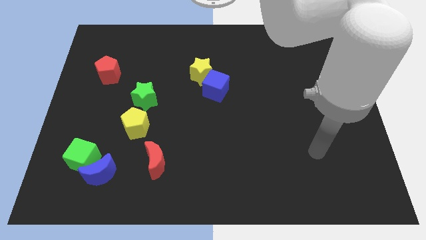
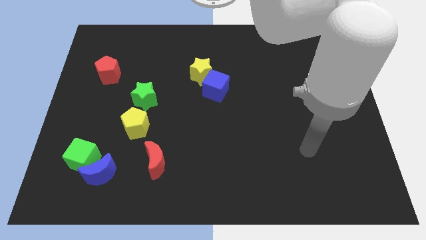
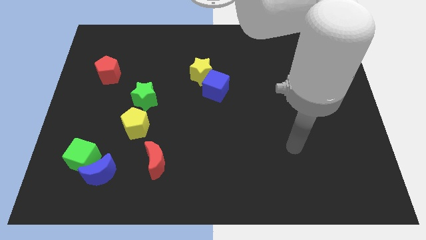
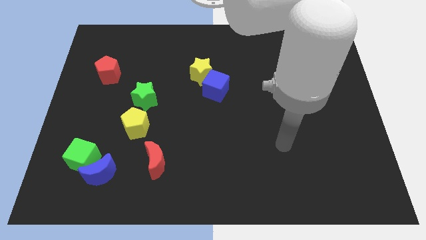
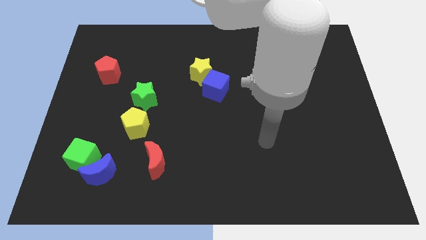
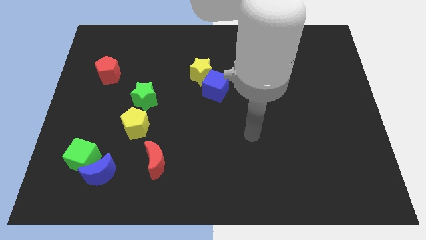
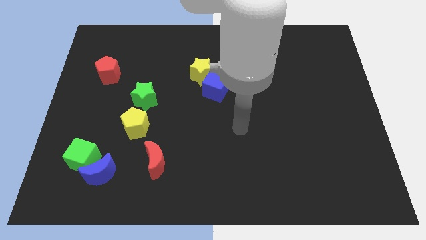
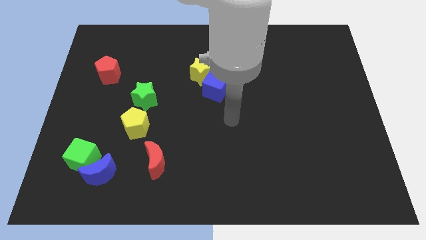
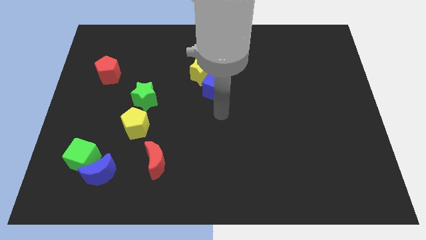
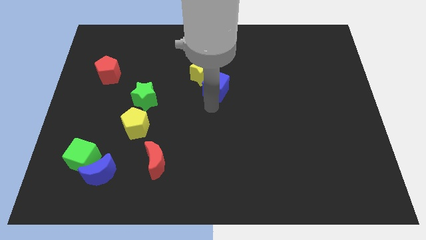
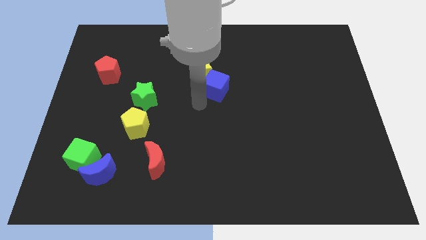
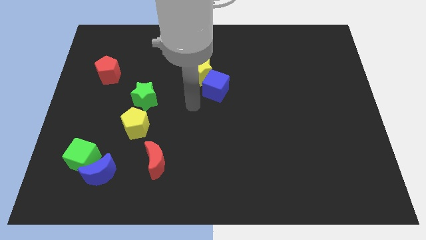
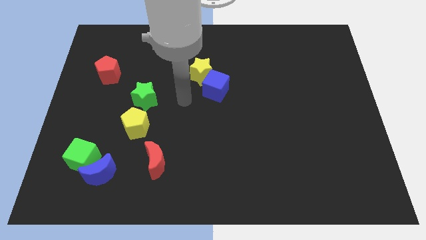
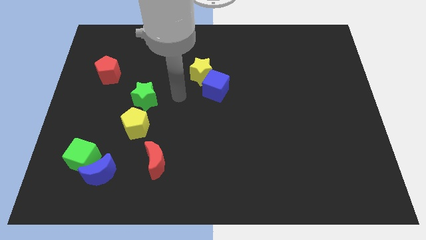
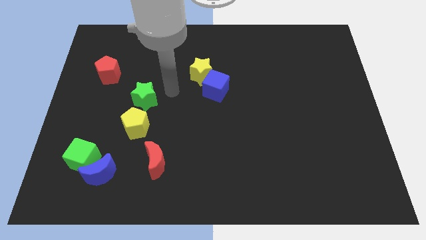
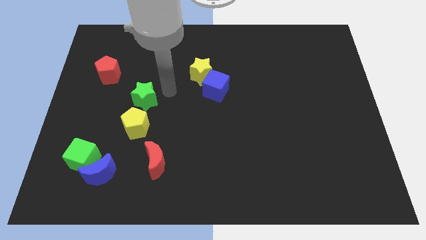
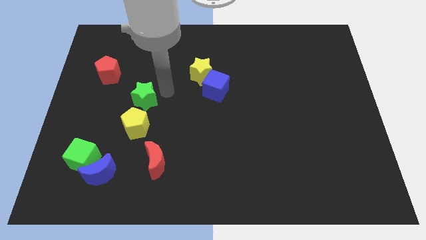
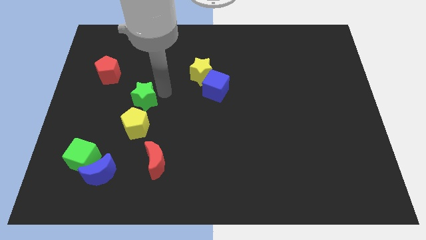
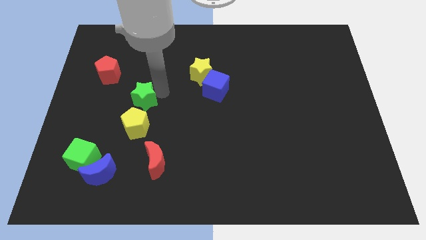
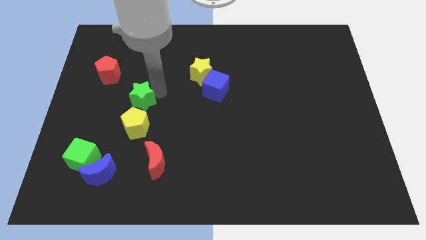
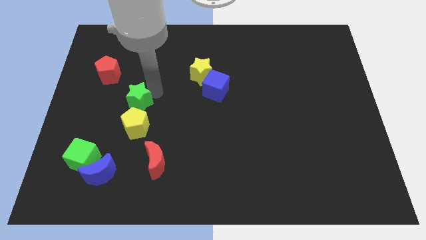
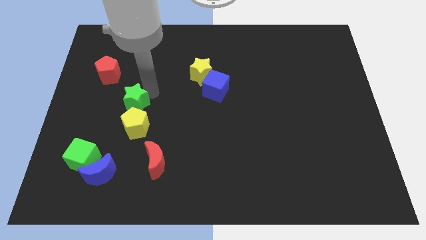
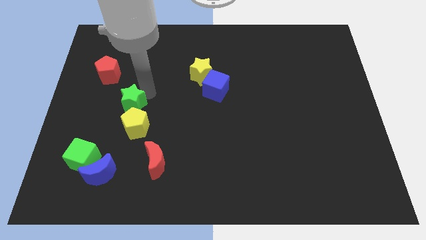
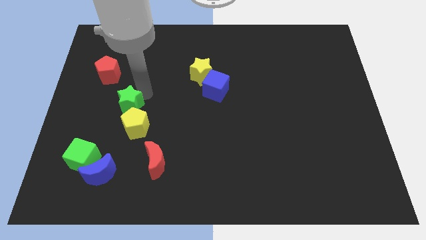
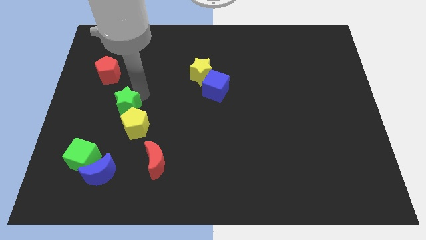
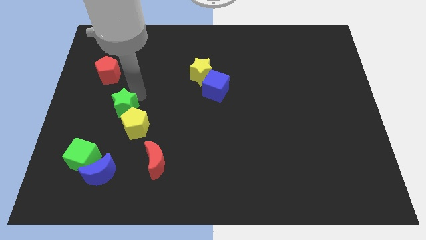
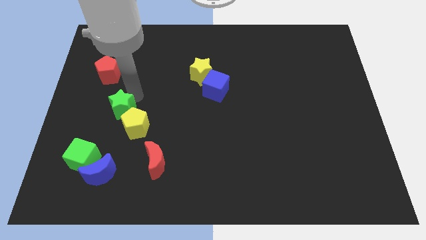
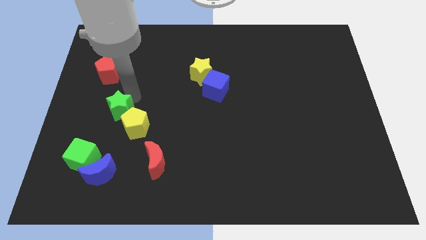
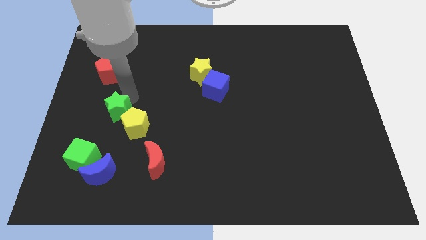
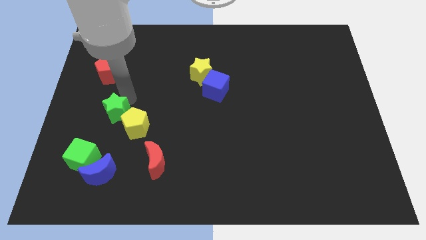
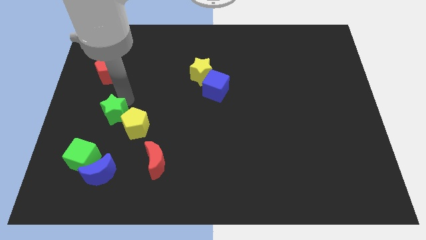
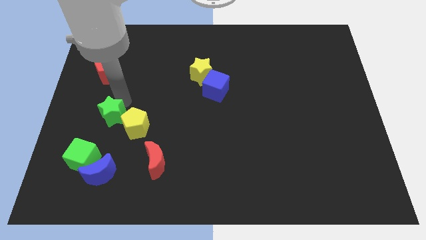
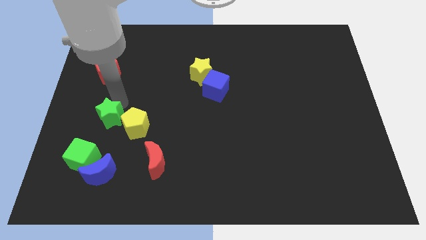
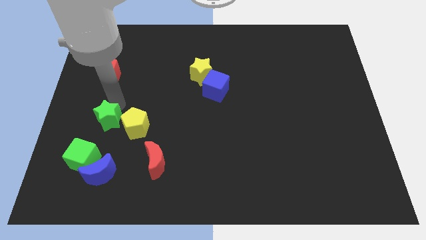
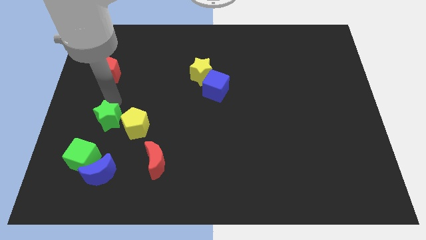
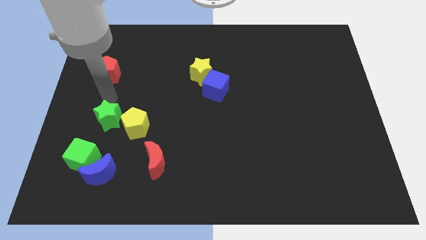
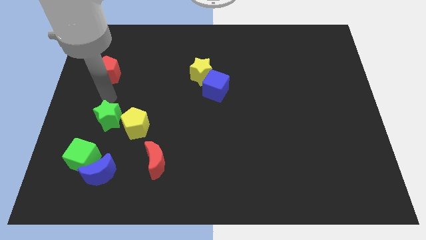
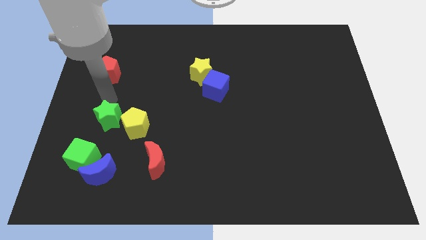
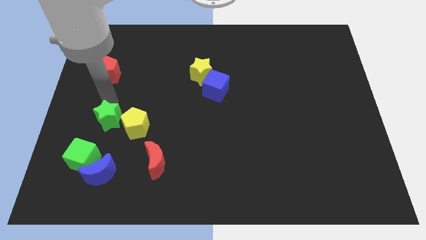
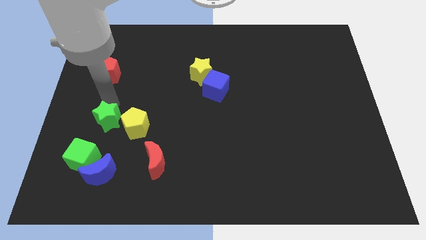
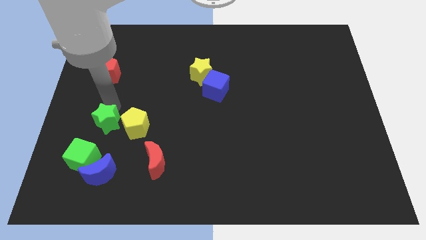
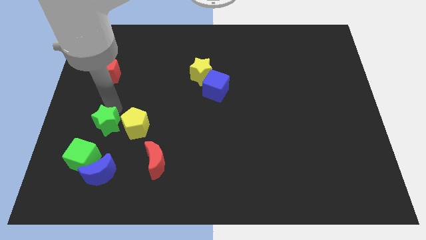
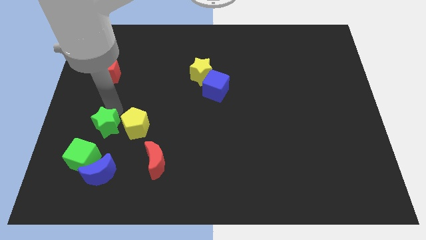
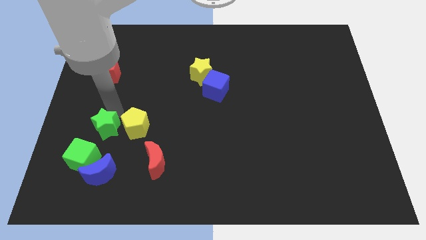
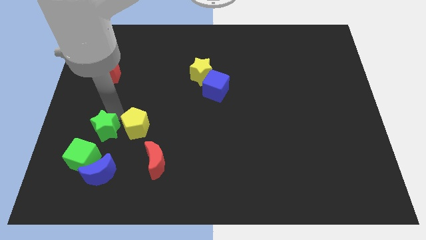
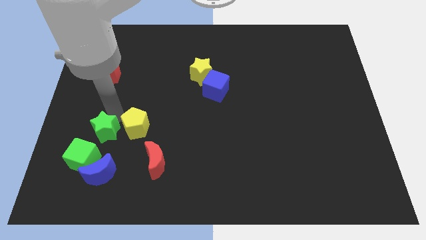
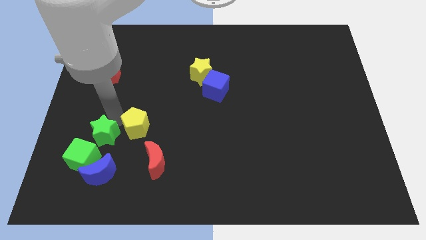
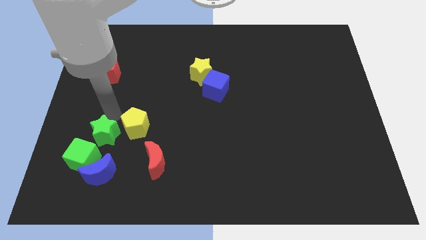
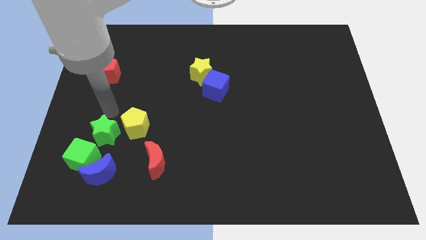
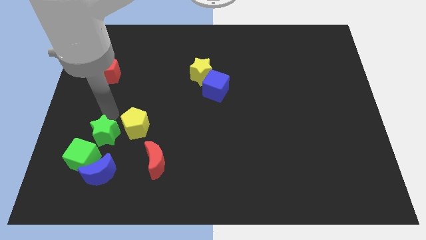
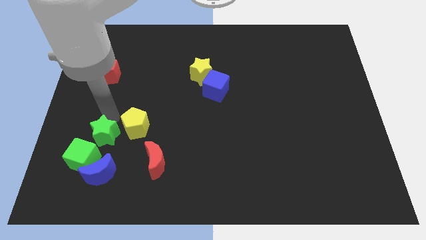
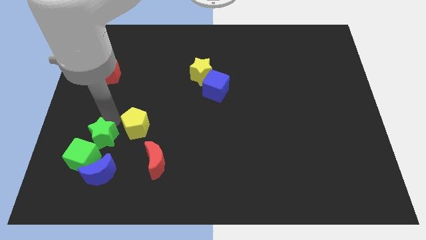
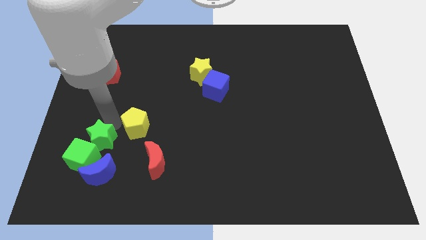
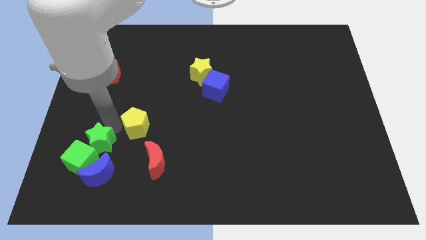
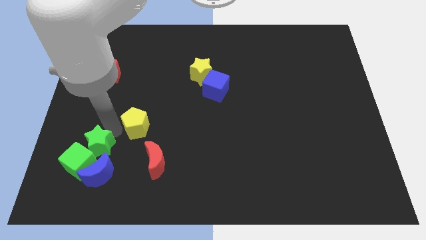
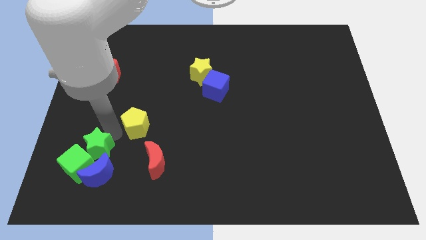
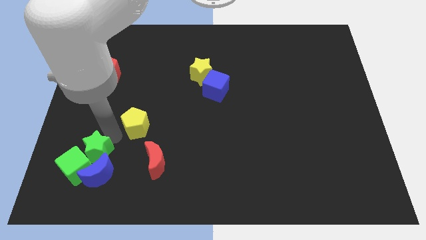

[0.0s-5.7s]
move the green star to the blue moon

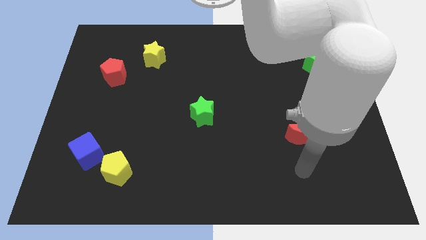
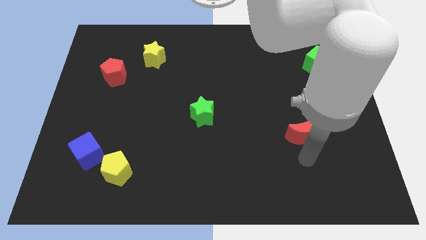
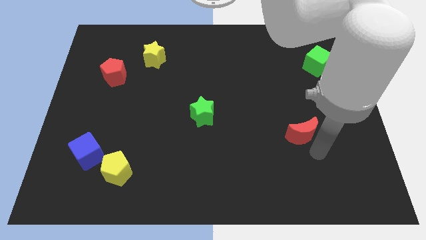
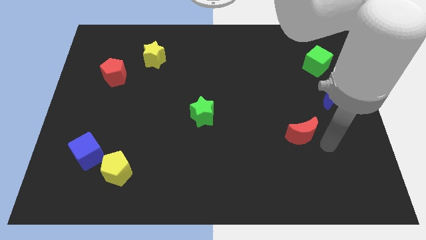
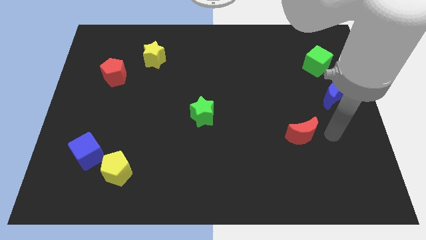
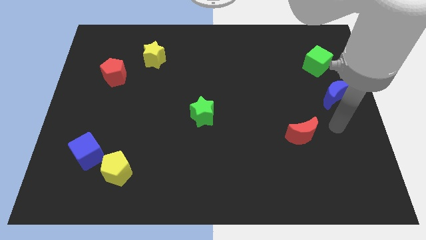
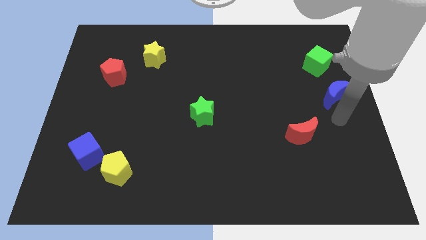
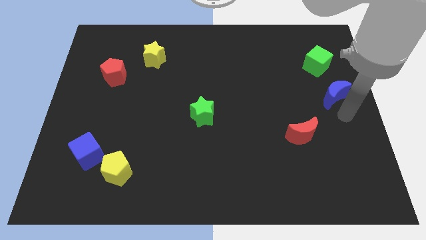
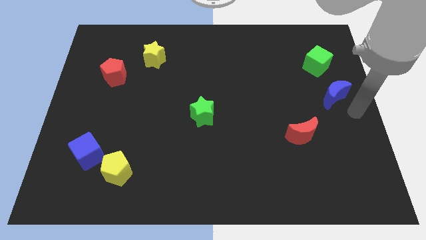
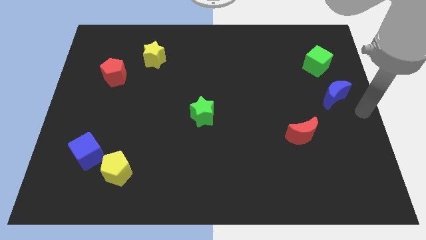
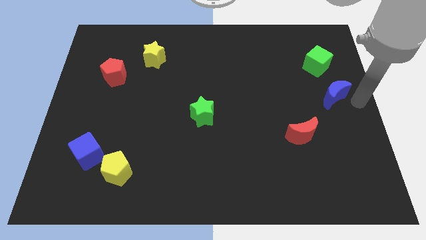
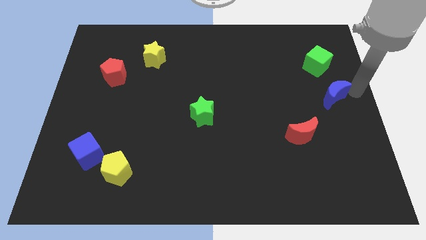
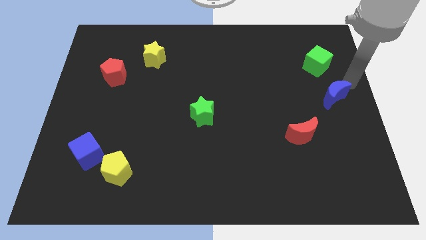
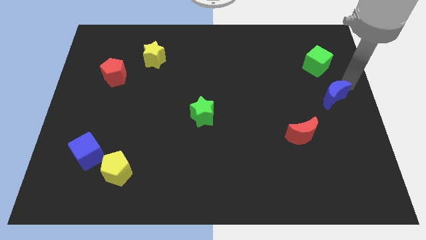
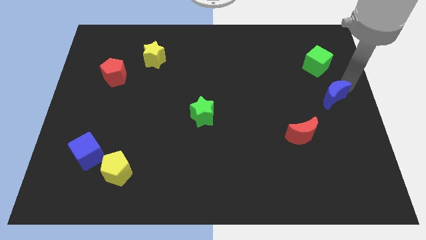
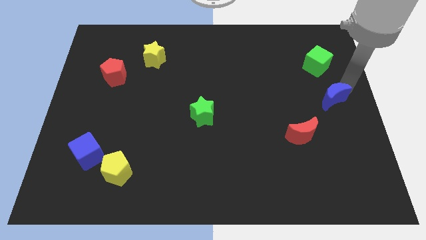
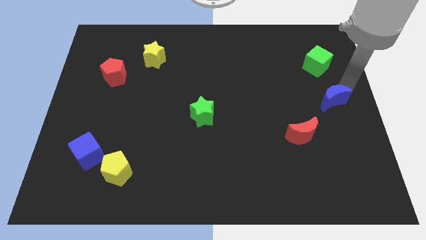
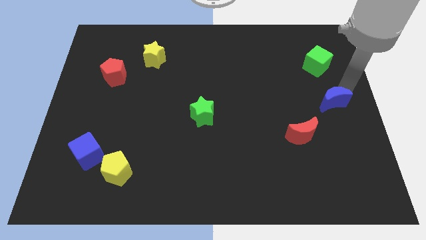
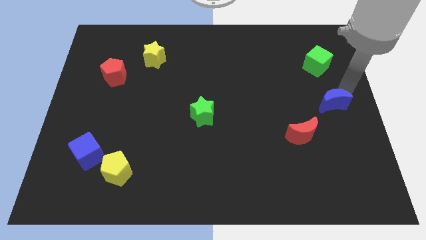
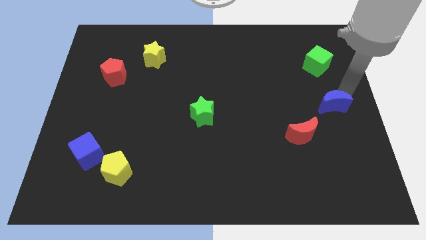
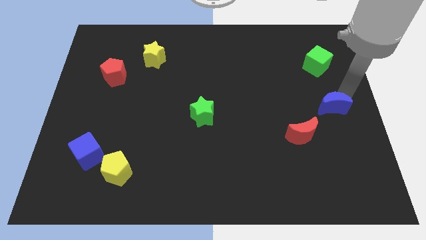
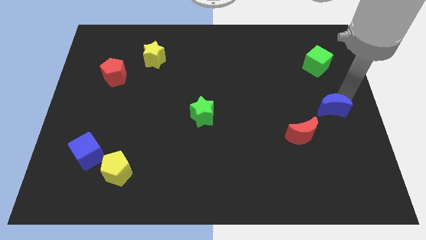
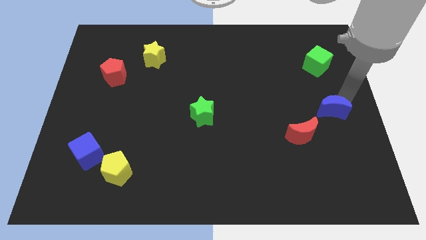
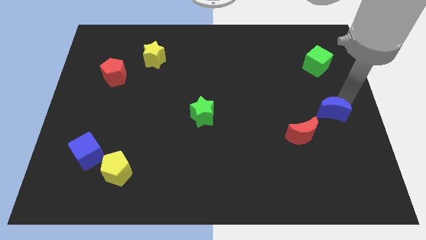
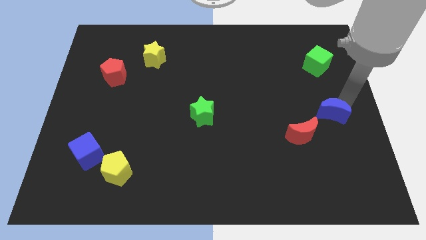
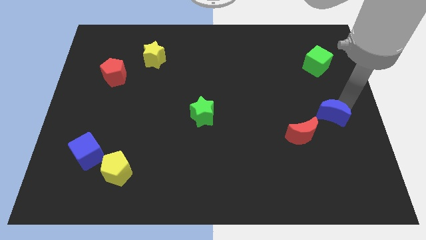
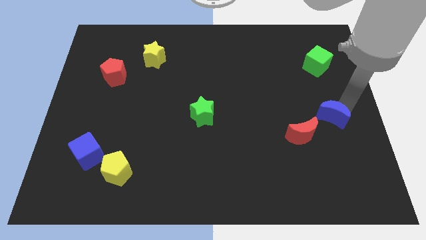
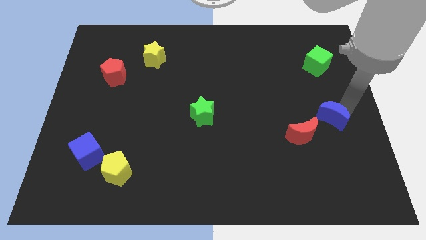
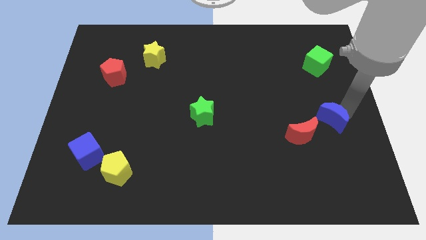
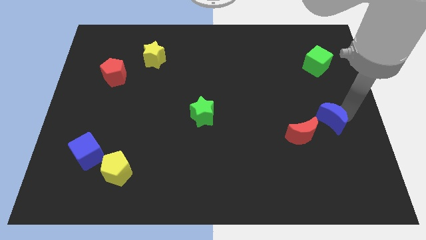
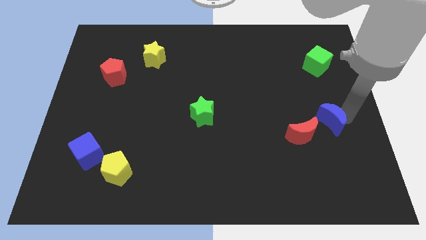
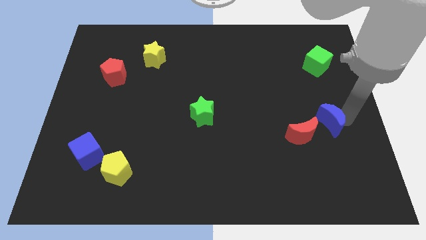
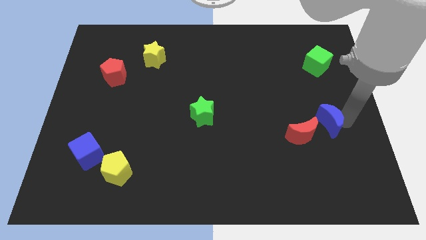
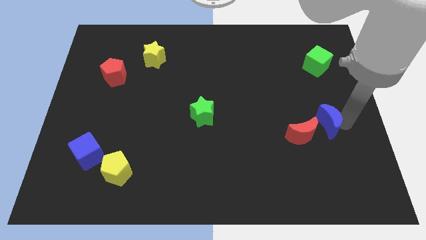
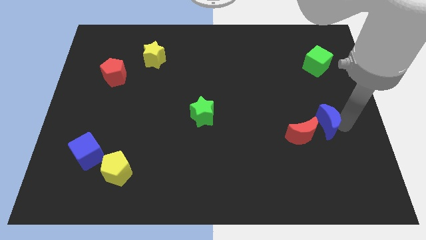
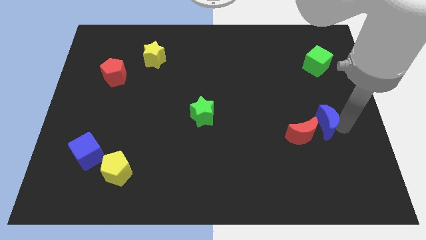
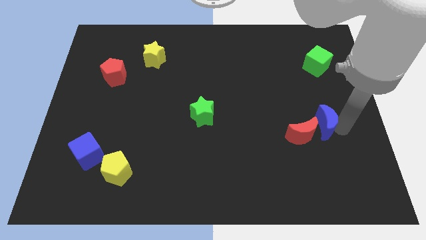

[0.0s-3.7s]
push the blue moon towards the red moon
